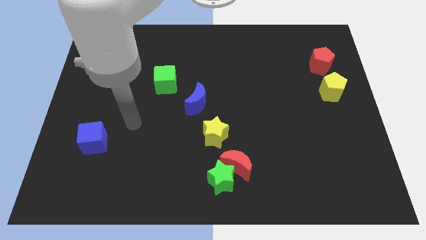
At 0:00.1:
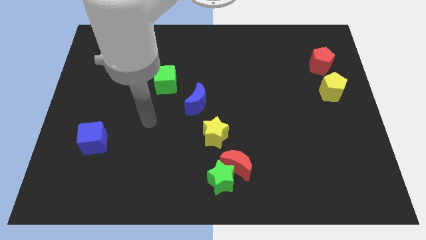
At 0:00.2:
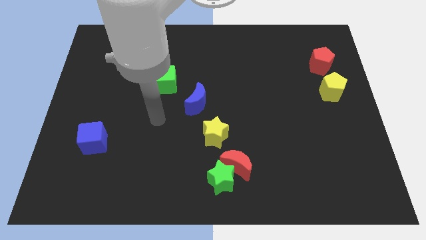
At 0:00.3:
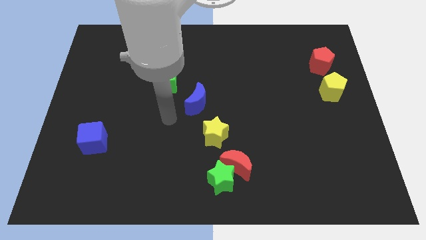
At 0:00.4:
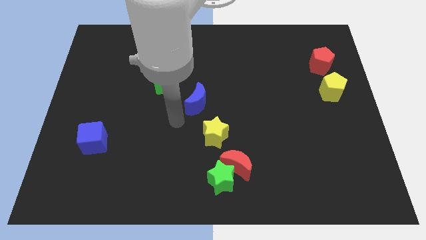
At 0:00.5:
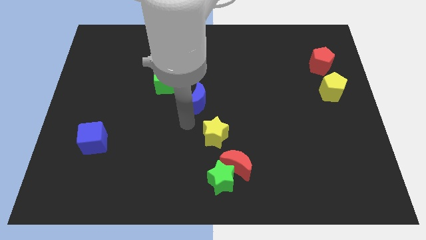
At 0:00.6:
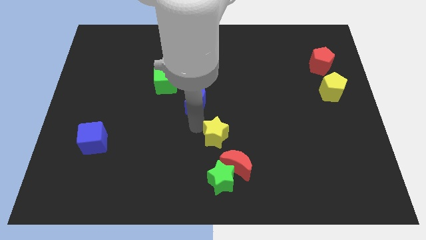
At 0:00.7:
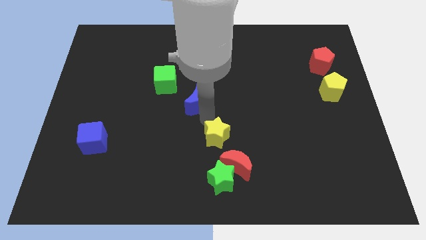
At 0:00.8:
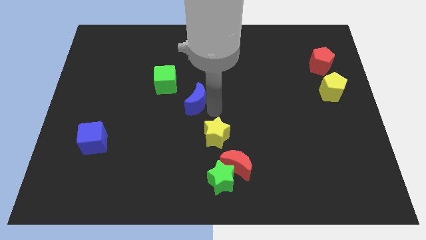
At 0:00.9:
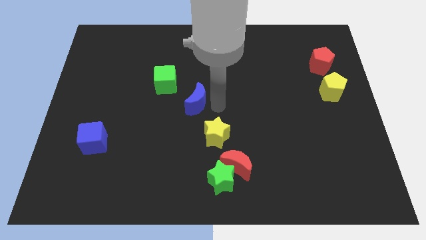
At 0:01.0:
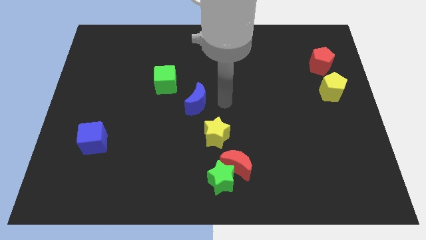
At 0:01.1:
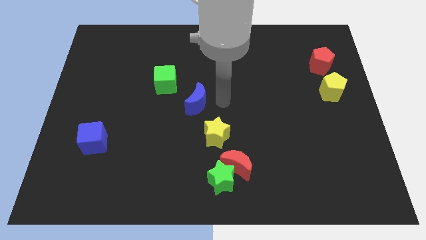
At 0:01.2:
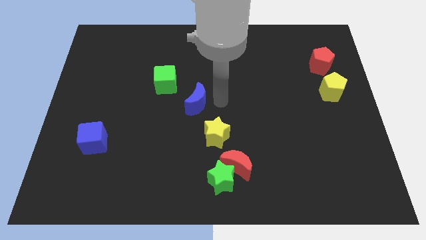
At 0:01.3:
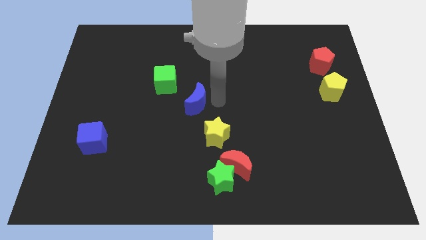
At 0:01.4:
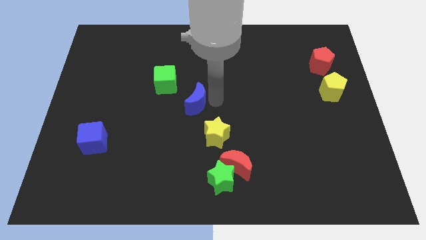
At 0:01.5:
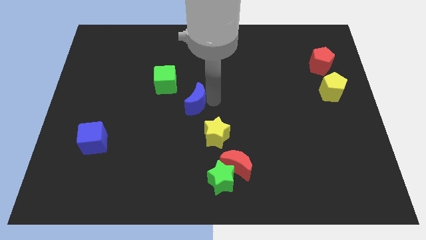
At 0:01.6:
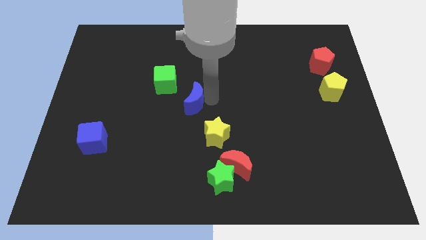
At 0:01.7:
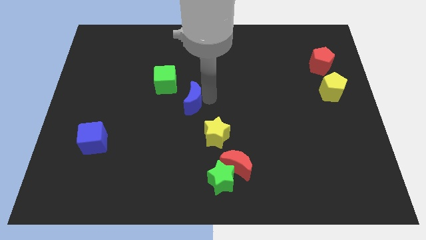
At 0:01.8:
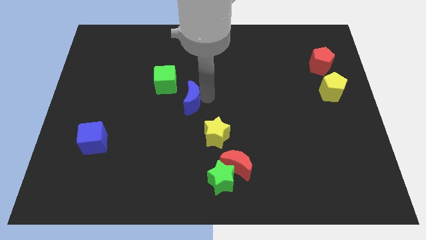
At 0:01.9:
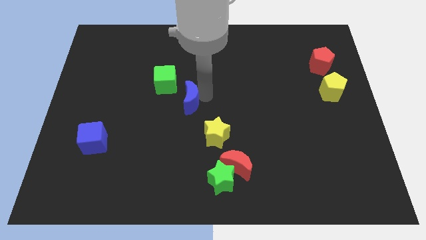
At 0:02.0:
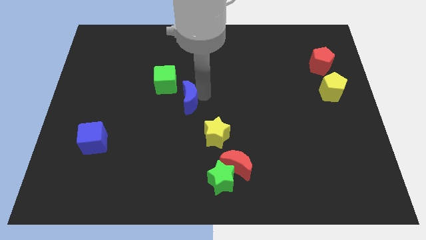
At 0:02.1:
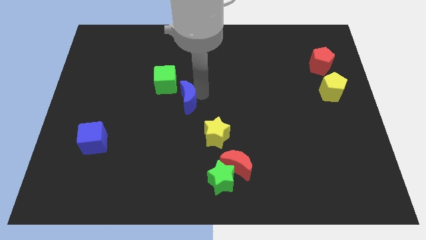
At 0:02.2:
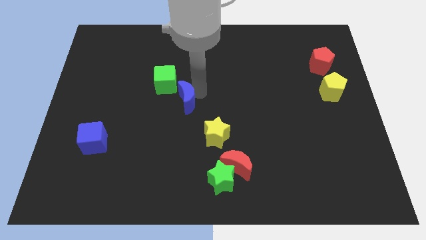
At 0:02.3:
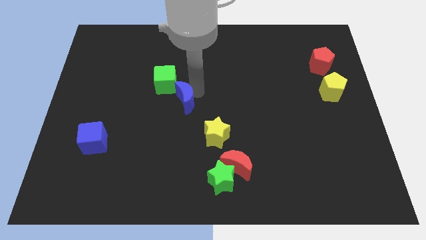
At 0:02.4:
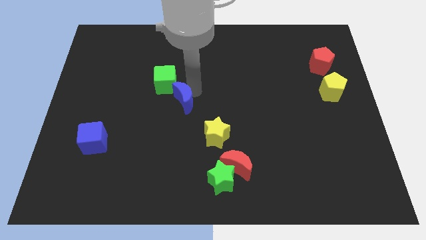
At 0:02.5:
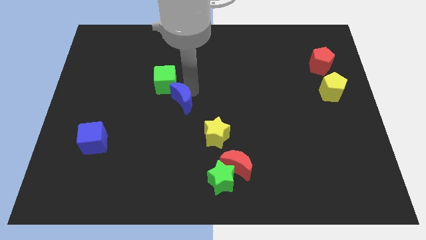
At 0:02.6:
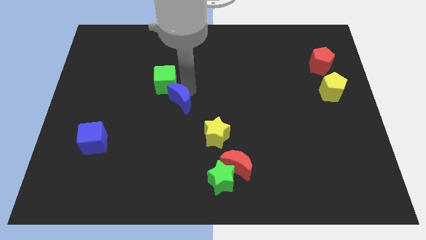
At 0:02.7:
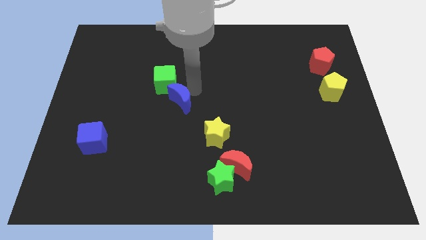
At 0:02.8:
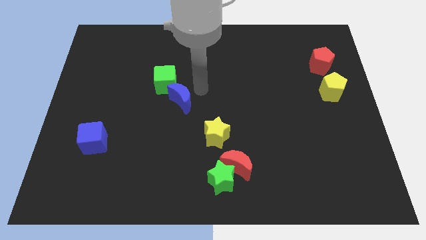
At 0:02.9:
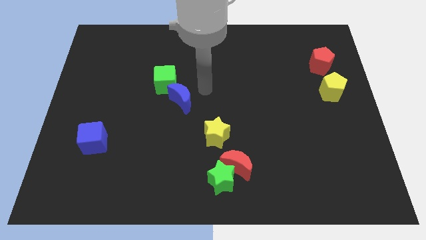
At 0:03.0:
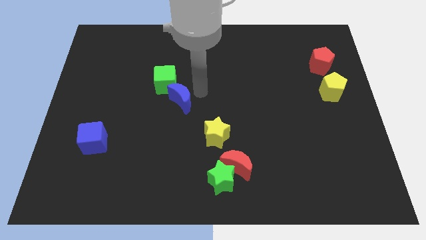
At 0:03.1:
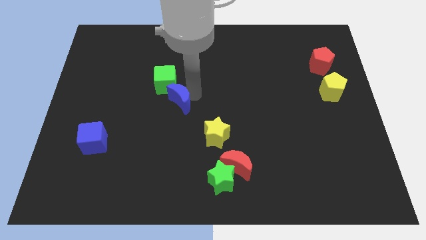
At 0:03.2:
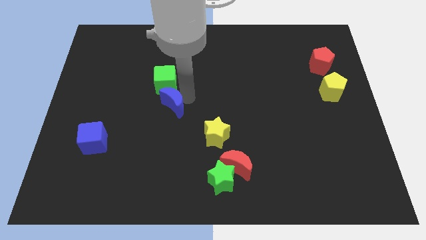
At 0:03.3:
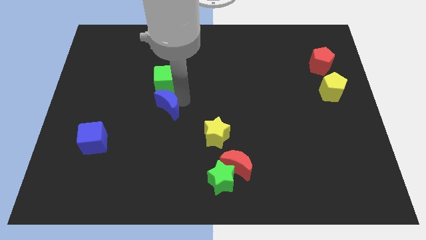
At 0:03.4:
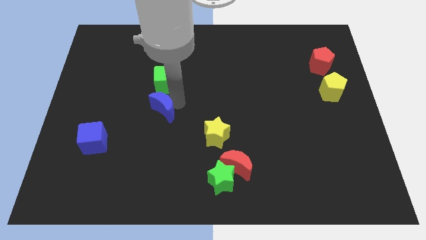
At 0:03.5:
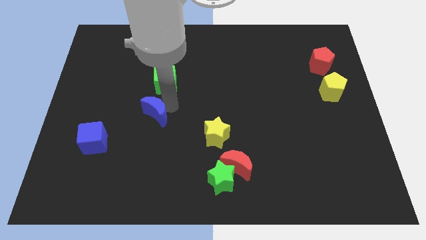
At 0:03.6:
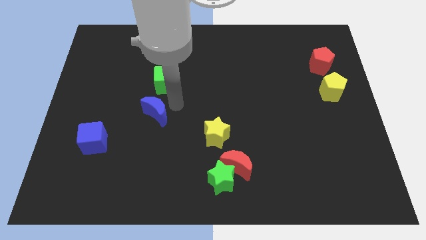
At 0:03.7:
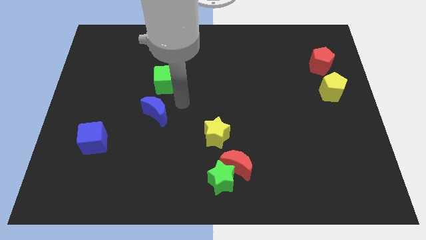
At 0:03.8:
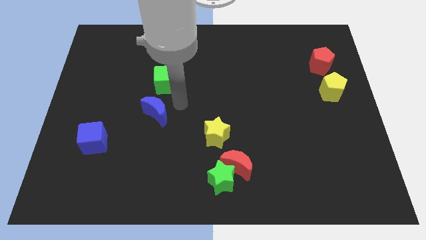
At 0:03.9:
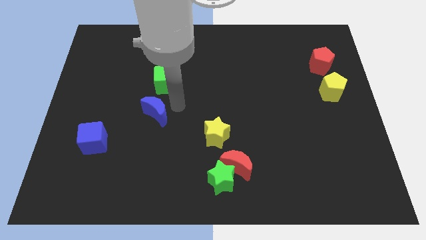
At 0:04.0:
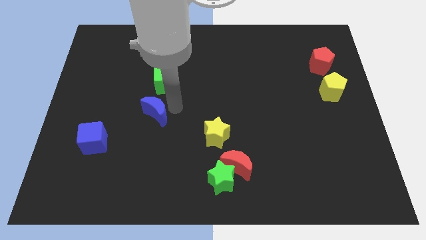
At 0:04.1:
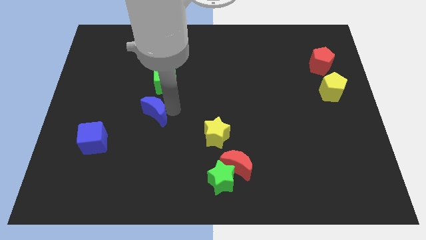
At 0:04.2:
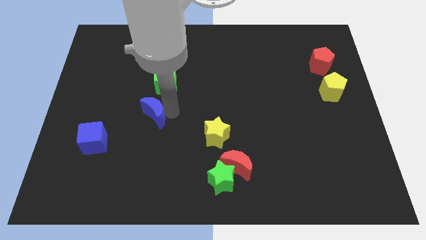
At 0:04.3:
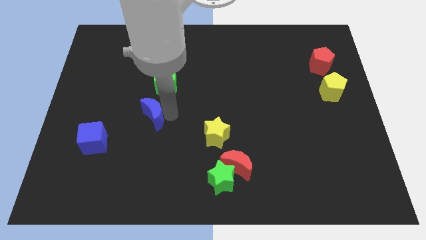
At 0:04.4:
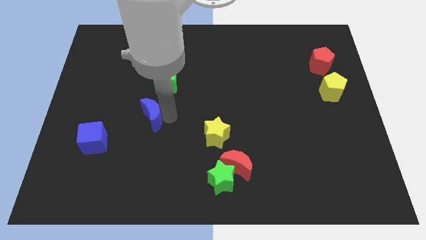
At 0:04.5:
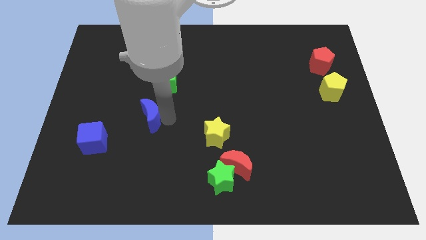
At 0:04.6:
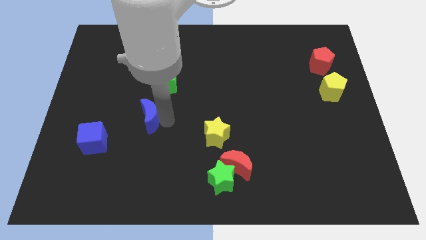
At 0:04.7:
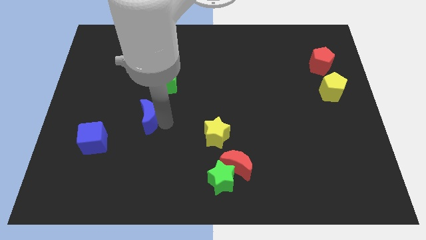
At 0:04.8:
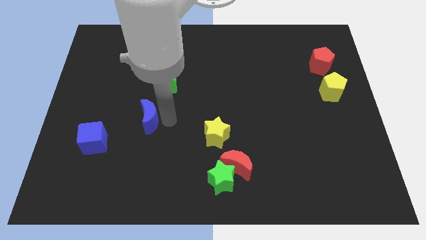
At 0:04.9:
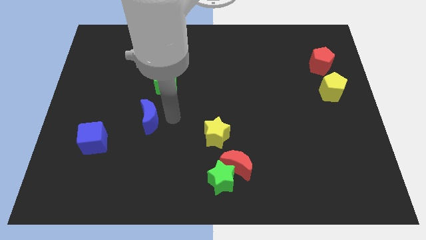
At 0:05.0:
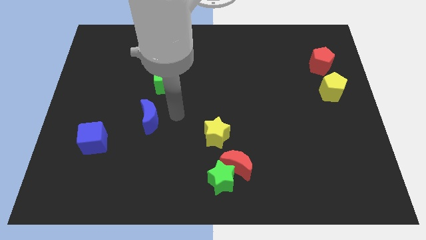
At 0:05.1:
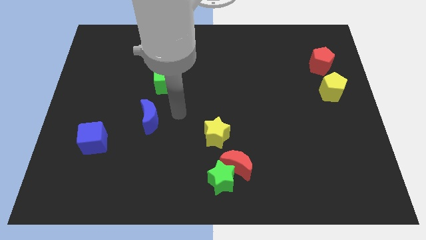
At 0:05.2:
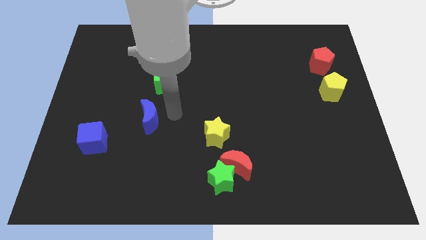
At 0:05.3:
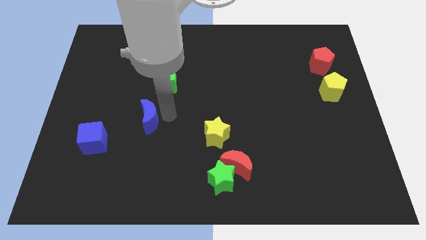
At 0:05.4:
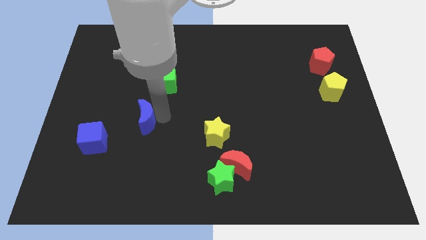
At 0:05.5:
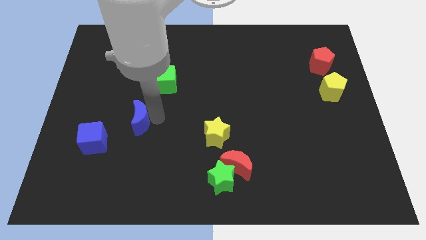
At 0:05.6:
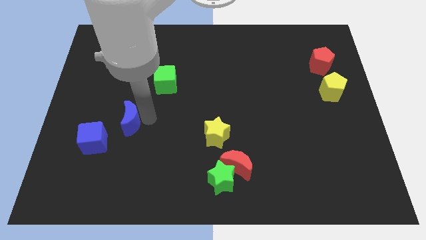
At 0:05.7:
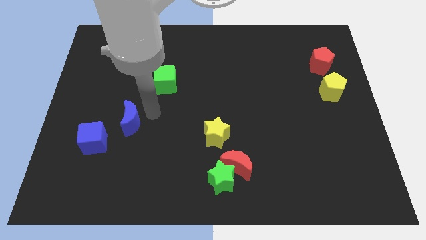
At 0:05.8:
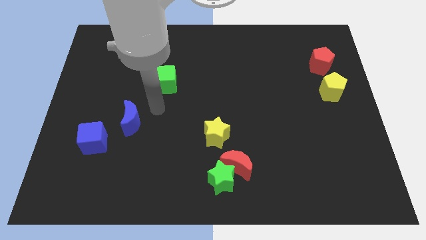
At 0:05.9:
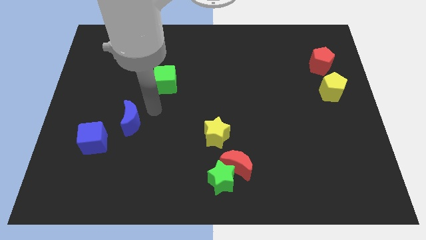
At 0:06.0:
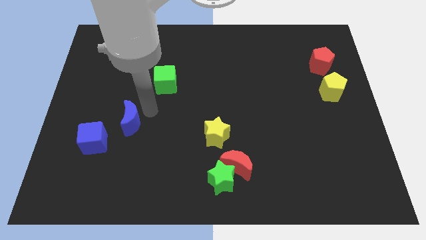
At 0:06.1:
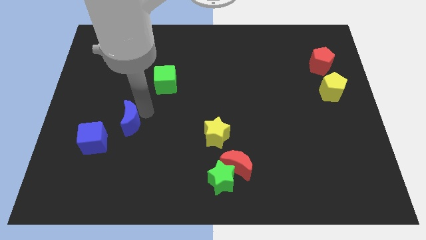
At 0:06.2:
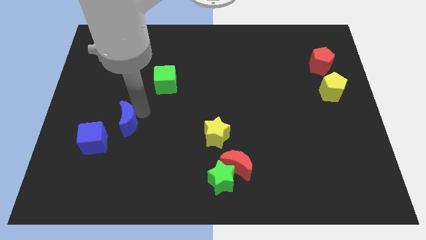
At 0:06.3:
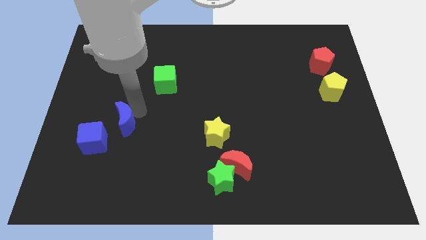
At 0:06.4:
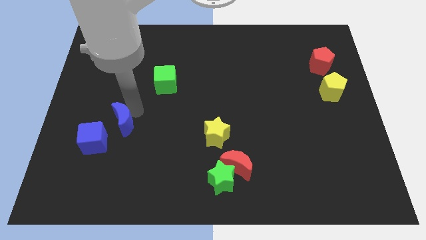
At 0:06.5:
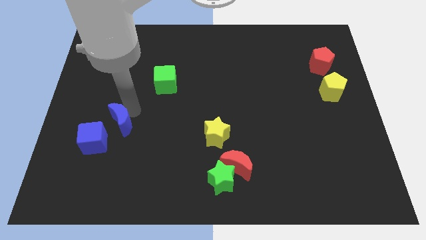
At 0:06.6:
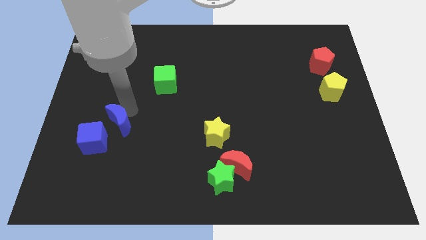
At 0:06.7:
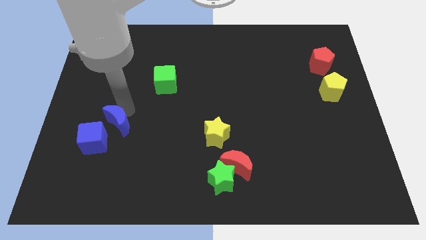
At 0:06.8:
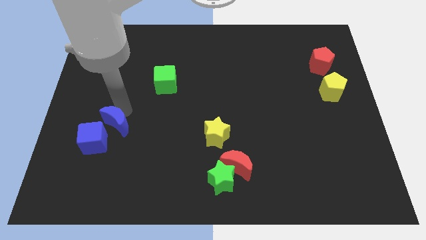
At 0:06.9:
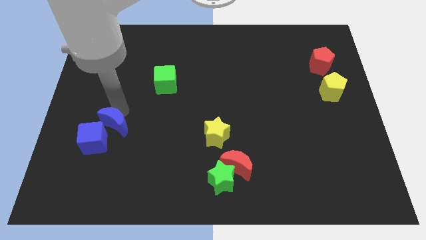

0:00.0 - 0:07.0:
move the blue moon towards the blue cube

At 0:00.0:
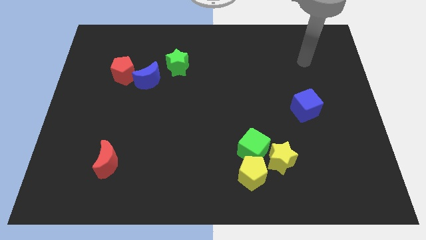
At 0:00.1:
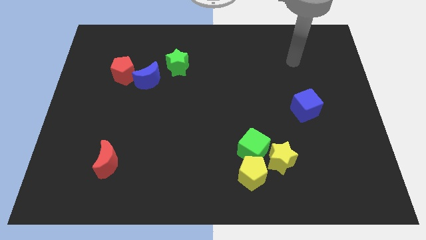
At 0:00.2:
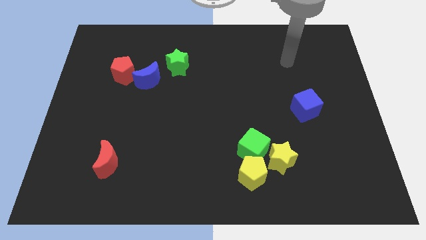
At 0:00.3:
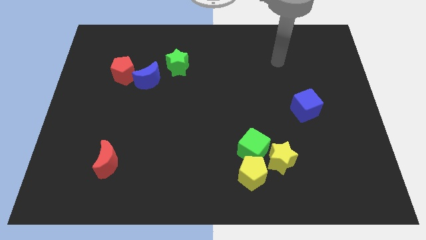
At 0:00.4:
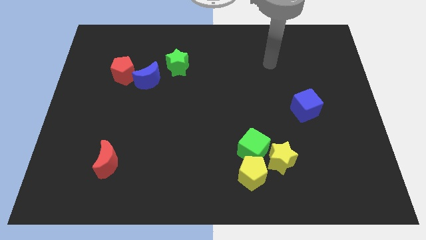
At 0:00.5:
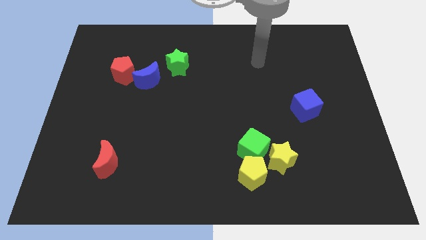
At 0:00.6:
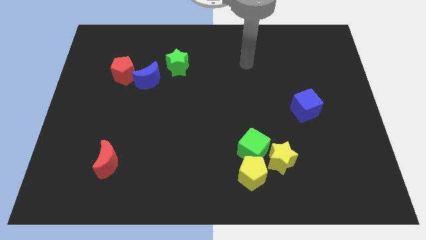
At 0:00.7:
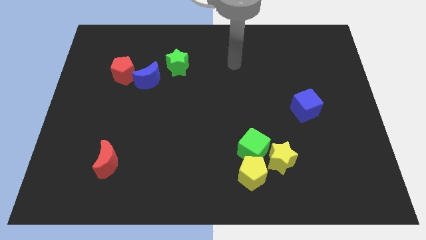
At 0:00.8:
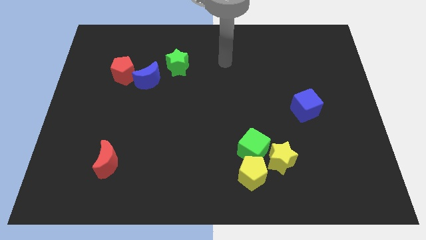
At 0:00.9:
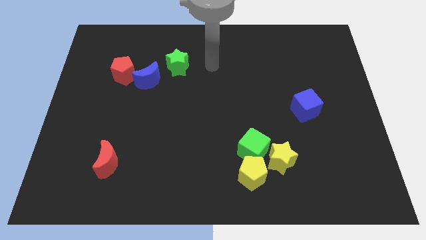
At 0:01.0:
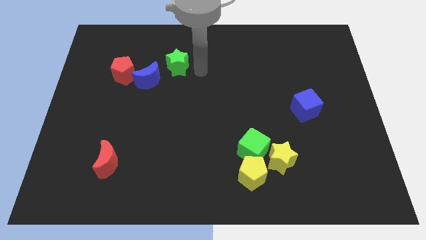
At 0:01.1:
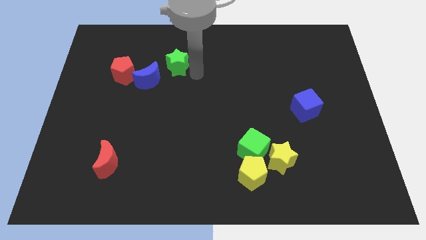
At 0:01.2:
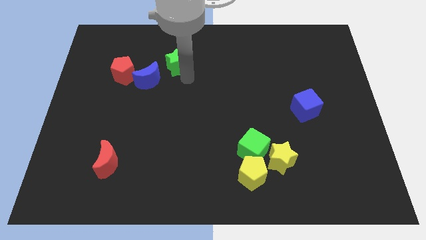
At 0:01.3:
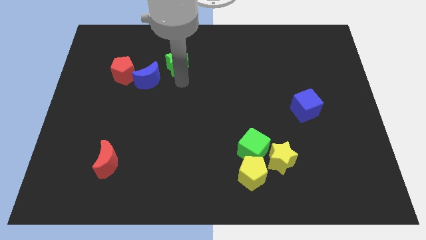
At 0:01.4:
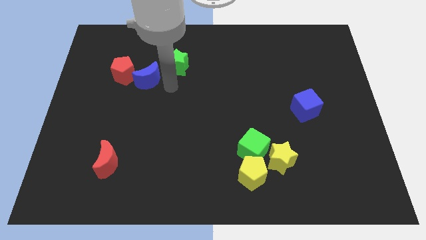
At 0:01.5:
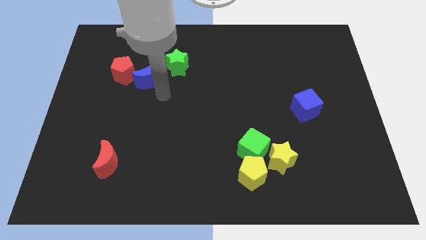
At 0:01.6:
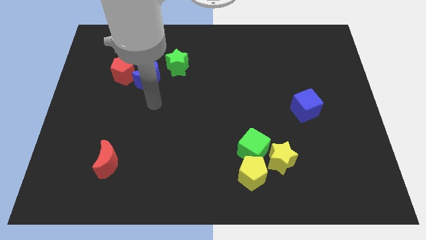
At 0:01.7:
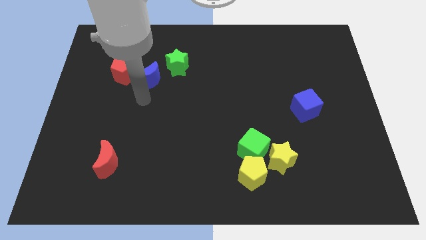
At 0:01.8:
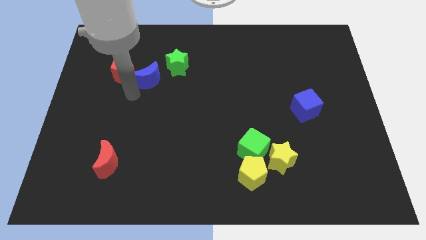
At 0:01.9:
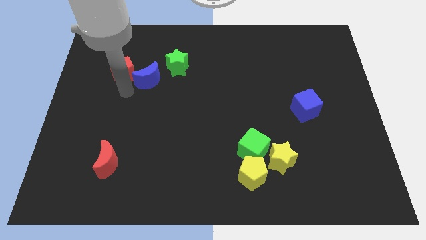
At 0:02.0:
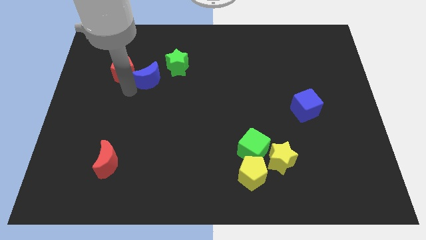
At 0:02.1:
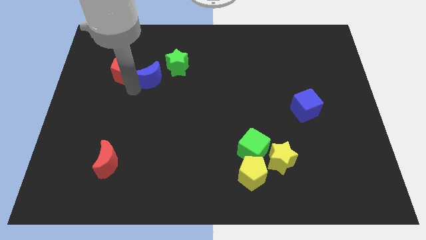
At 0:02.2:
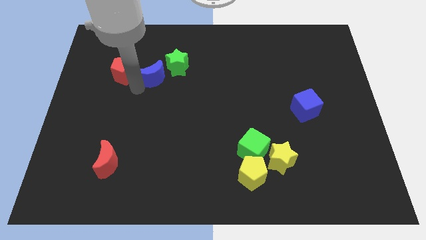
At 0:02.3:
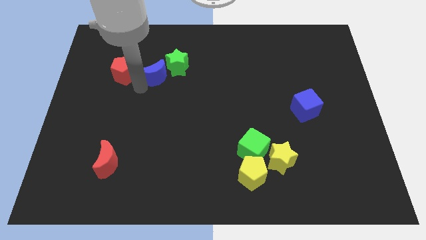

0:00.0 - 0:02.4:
move the blue moon towards the green star
